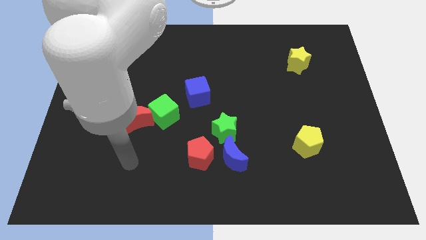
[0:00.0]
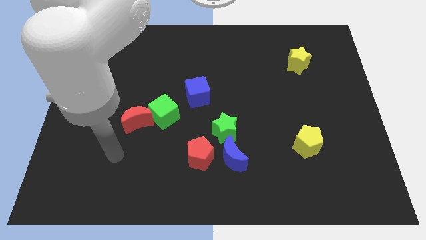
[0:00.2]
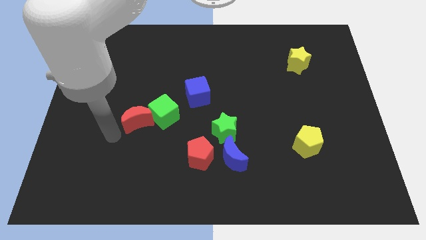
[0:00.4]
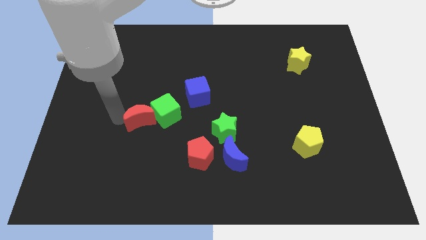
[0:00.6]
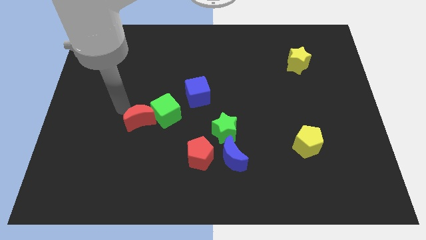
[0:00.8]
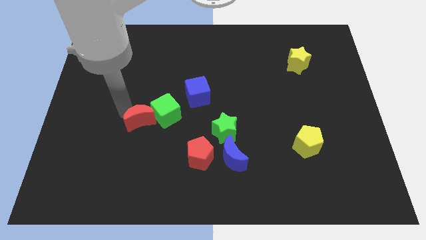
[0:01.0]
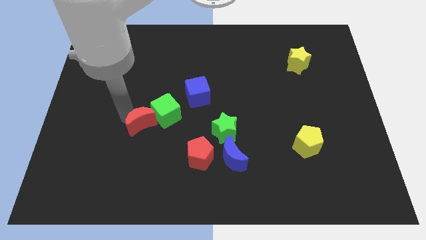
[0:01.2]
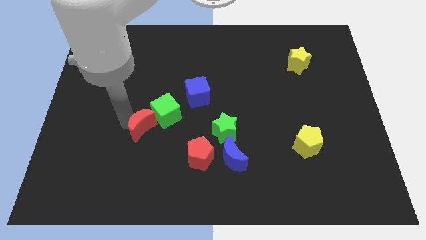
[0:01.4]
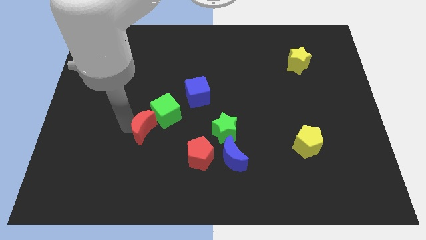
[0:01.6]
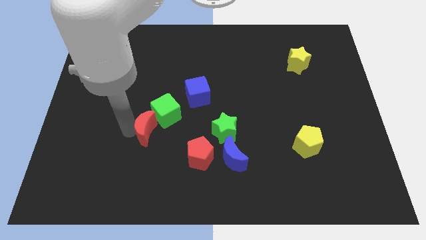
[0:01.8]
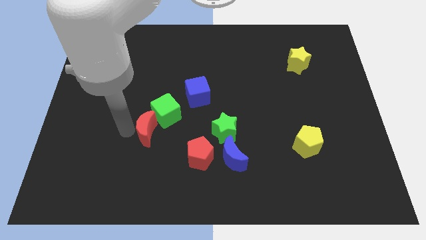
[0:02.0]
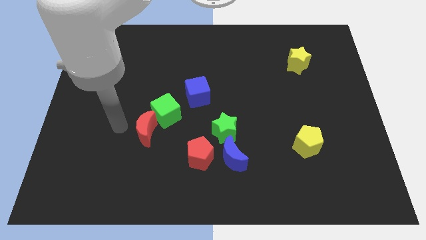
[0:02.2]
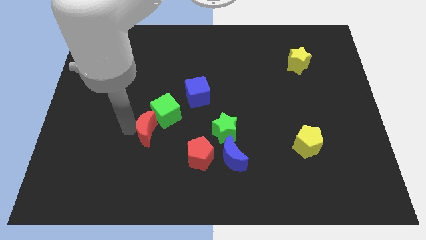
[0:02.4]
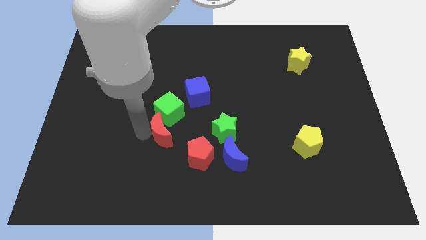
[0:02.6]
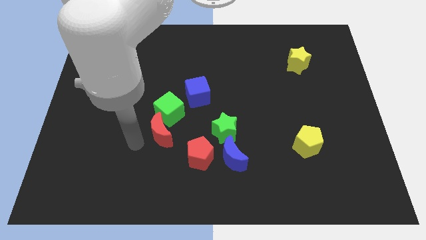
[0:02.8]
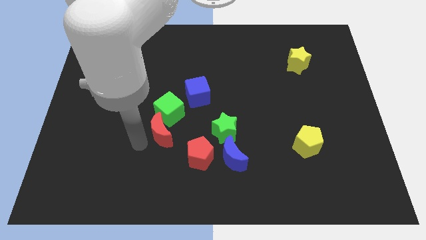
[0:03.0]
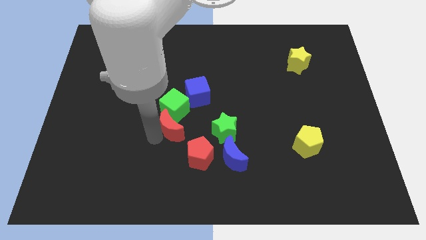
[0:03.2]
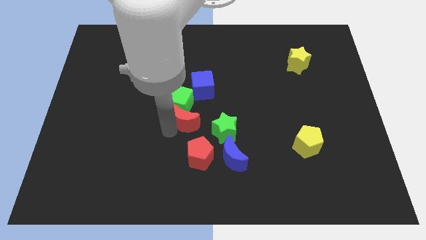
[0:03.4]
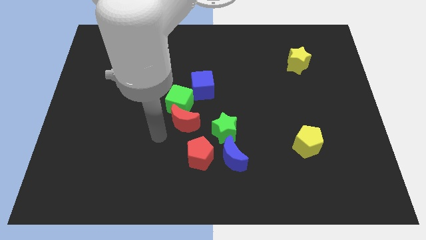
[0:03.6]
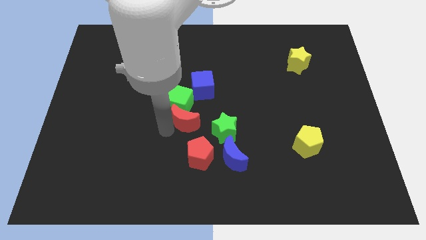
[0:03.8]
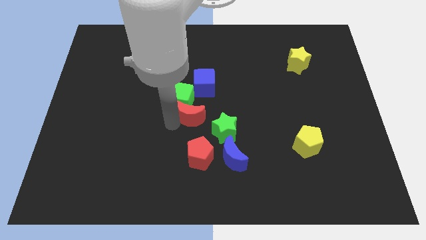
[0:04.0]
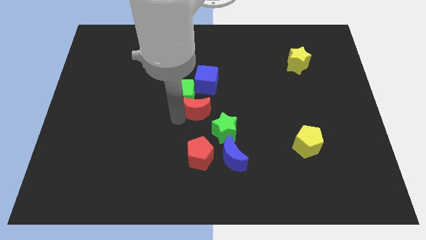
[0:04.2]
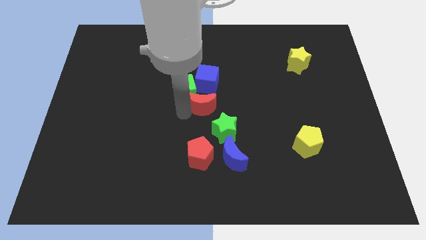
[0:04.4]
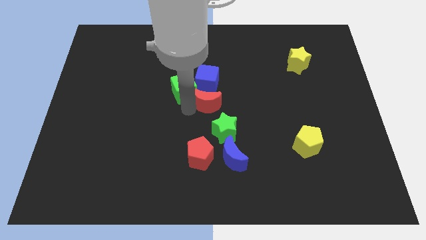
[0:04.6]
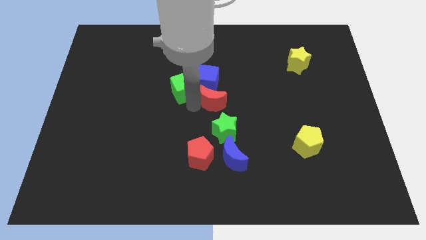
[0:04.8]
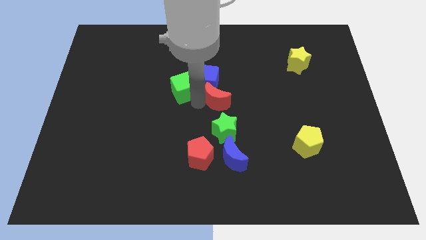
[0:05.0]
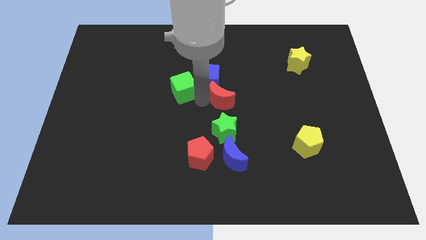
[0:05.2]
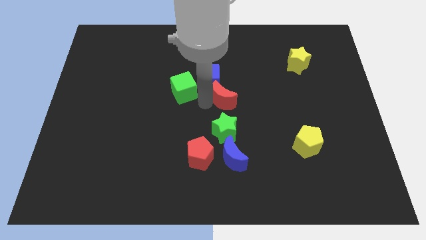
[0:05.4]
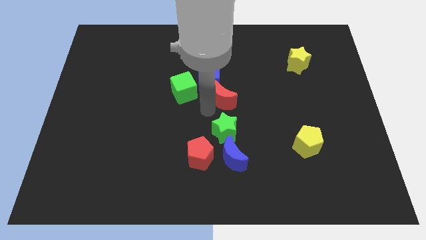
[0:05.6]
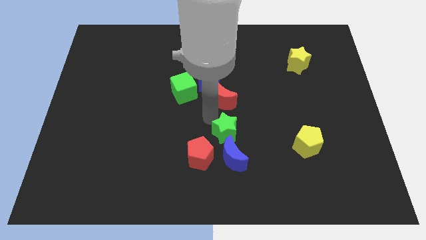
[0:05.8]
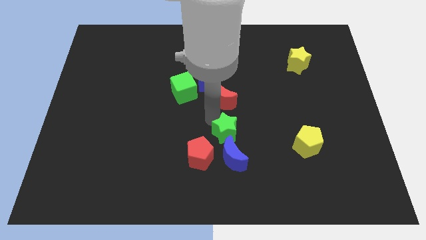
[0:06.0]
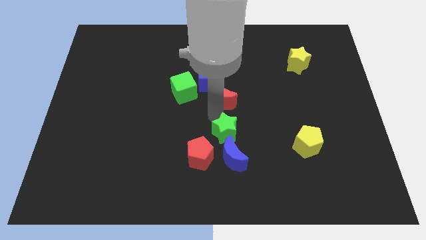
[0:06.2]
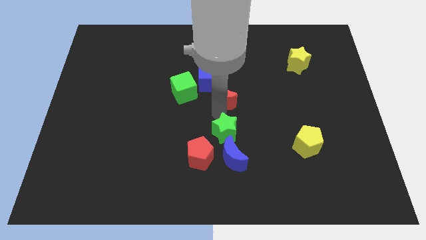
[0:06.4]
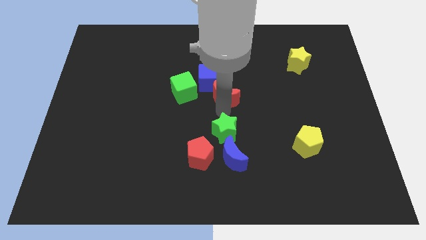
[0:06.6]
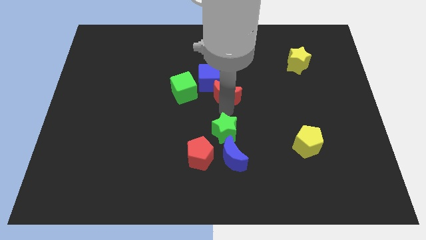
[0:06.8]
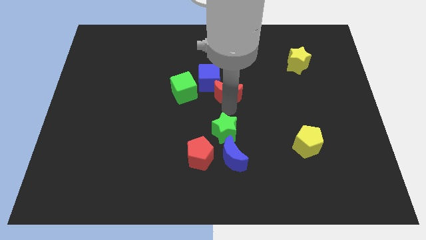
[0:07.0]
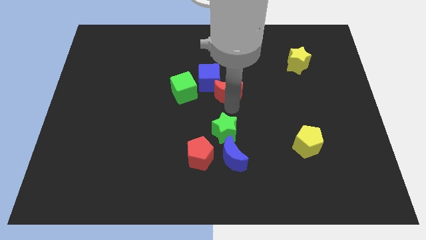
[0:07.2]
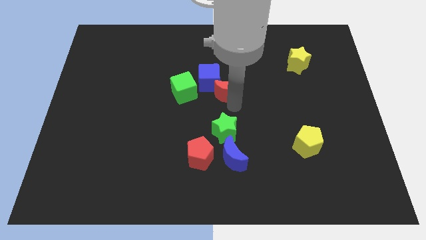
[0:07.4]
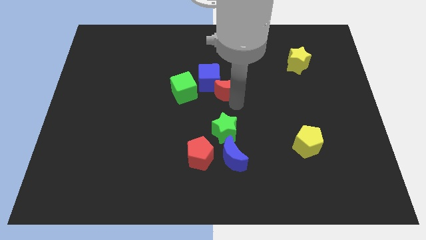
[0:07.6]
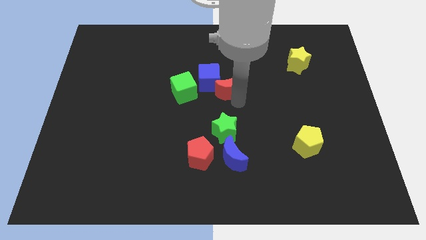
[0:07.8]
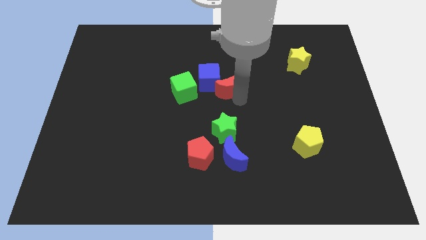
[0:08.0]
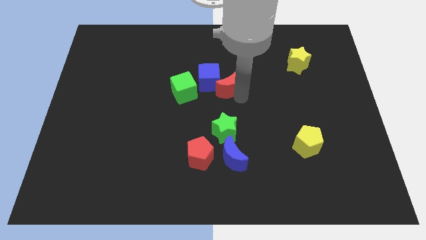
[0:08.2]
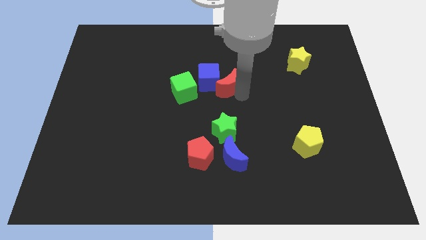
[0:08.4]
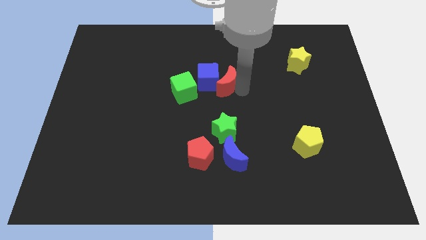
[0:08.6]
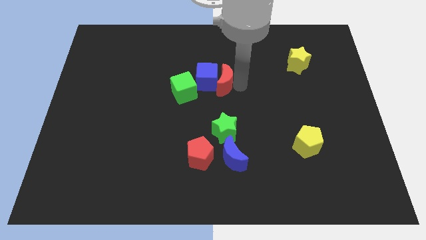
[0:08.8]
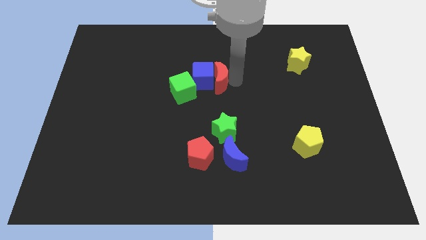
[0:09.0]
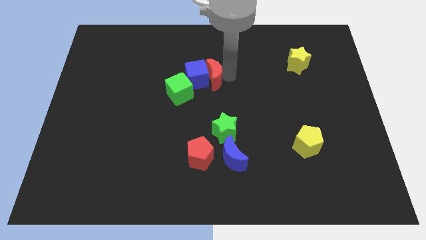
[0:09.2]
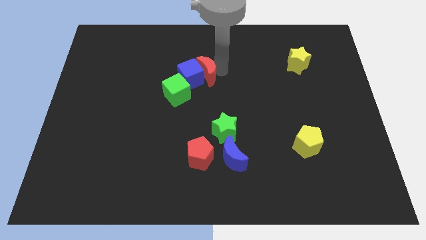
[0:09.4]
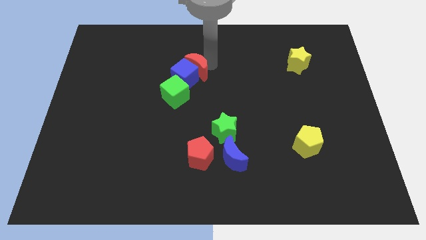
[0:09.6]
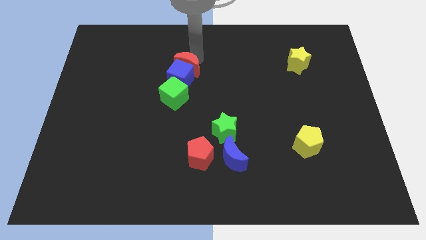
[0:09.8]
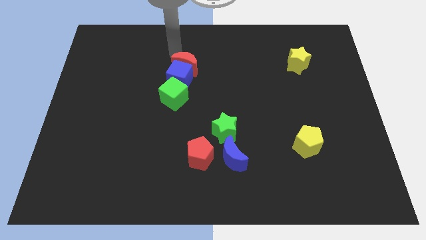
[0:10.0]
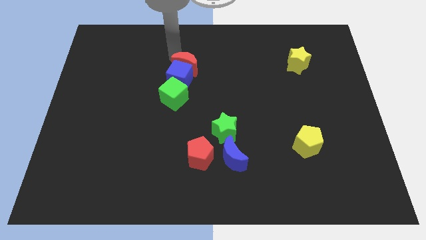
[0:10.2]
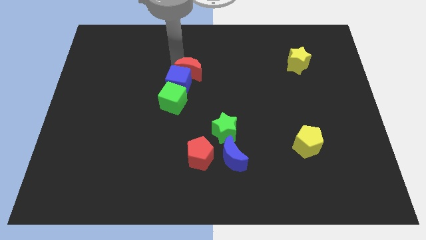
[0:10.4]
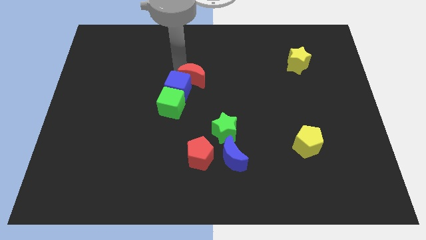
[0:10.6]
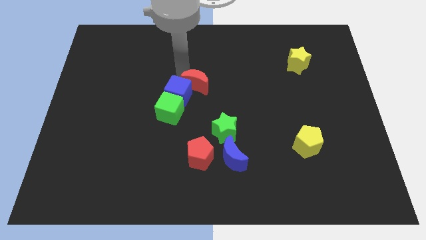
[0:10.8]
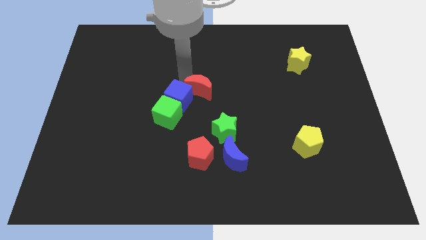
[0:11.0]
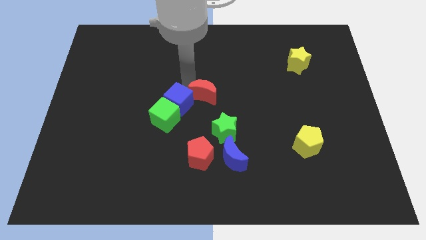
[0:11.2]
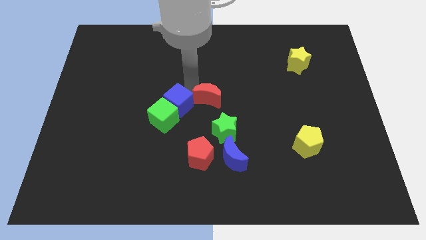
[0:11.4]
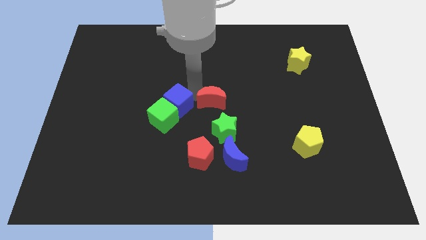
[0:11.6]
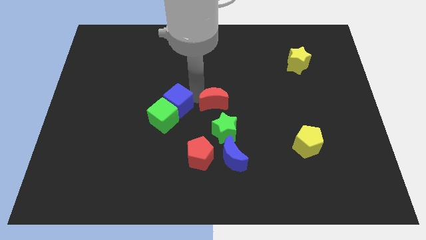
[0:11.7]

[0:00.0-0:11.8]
put the red moon just right of the green cube

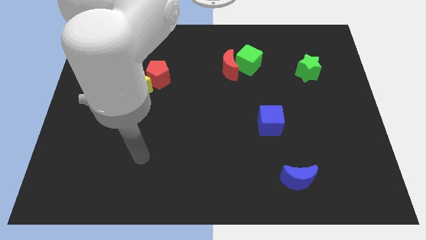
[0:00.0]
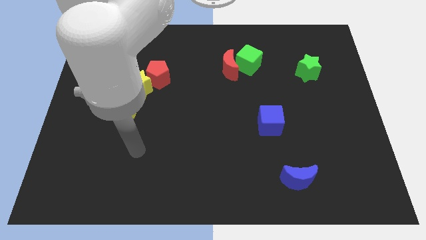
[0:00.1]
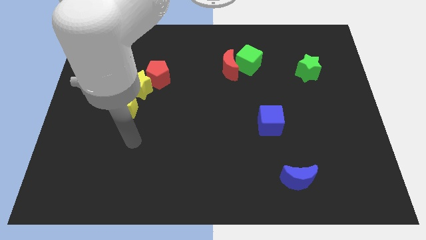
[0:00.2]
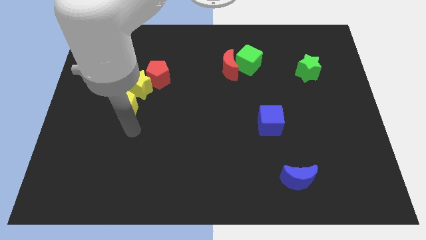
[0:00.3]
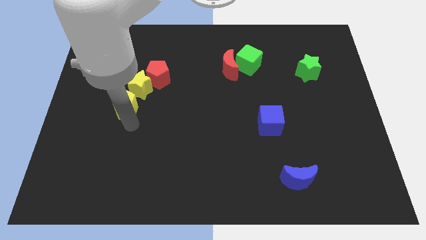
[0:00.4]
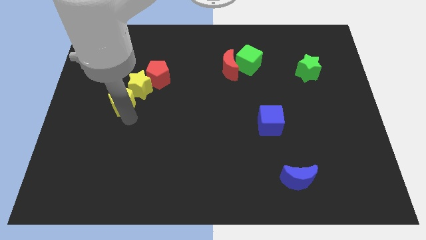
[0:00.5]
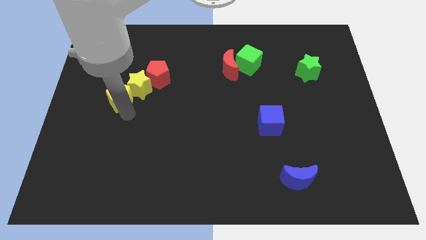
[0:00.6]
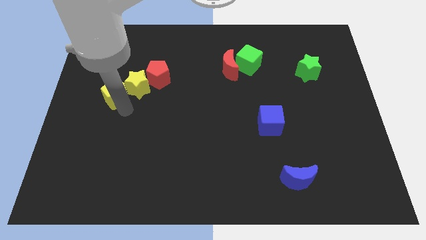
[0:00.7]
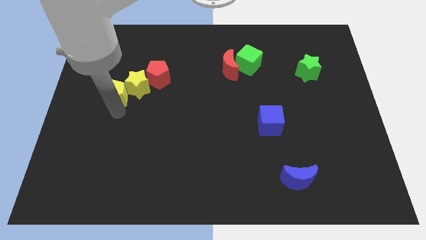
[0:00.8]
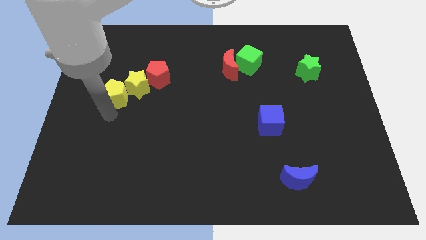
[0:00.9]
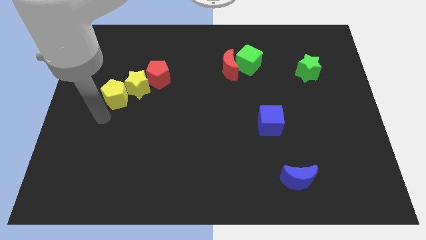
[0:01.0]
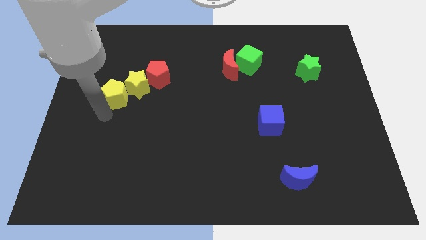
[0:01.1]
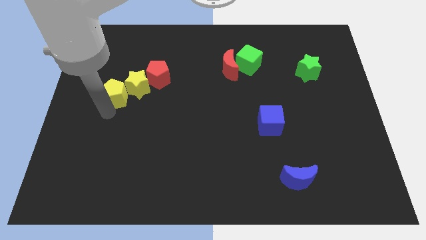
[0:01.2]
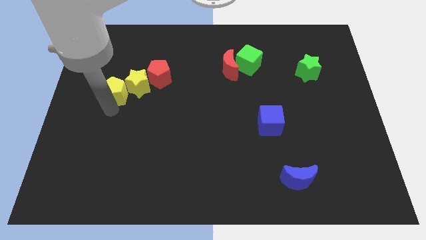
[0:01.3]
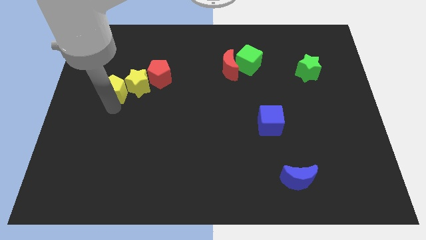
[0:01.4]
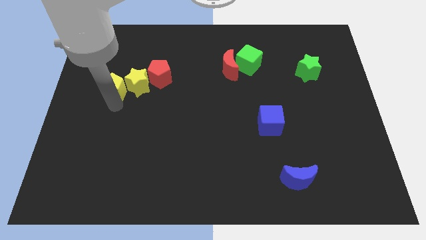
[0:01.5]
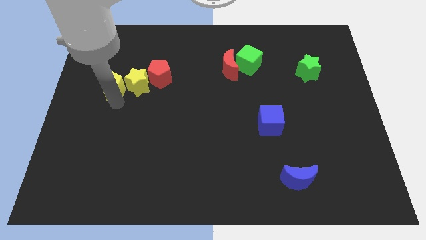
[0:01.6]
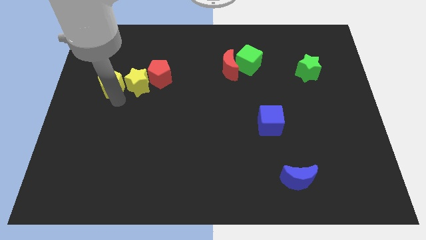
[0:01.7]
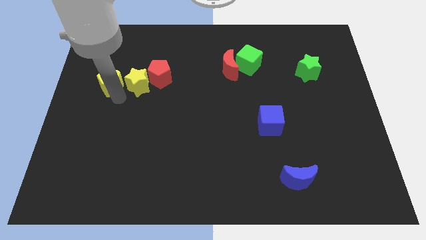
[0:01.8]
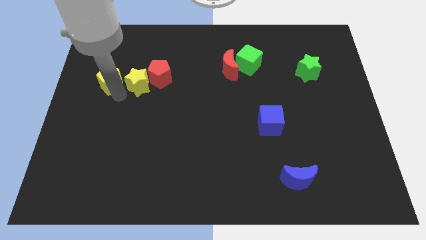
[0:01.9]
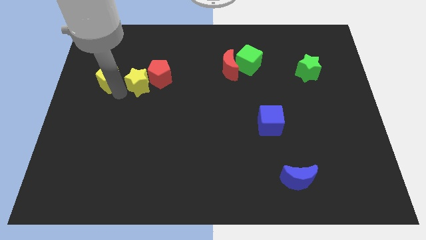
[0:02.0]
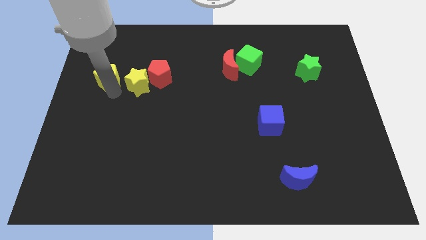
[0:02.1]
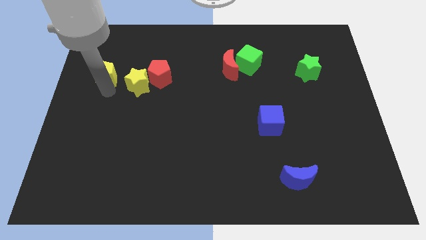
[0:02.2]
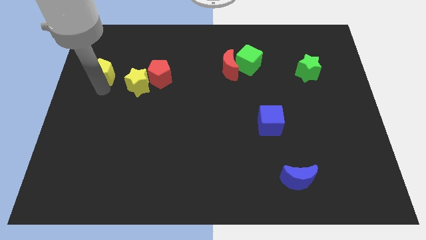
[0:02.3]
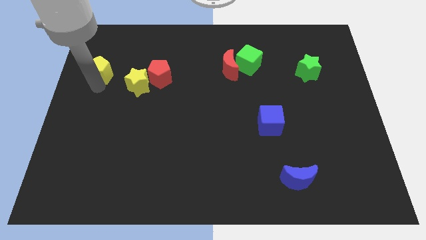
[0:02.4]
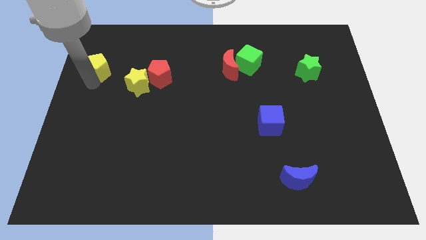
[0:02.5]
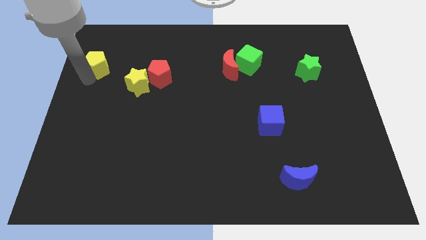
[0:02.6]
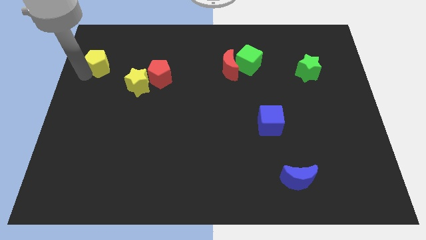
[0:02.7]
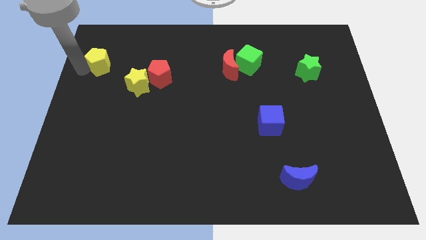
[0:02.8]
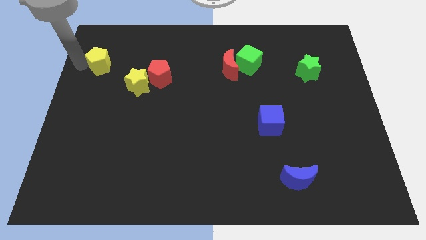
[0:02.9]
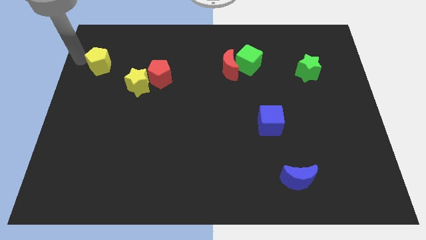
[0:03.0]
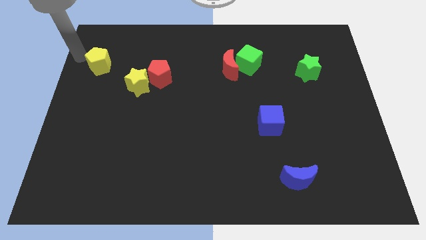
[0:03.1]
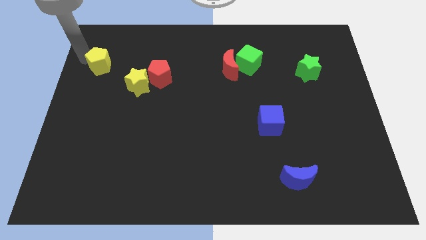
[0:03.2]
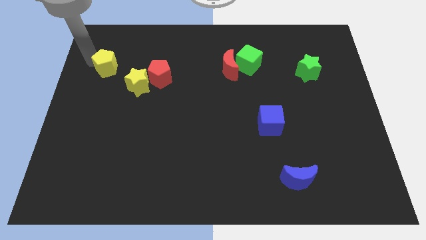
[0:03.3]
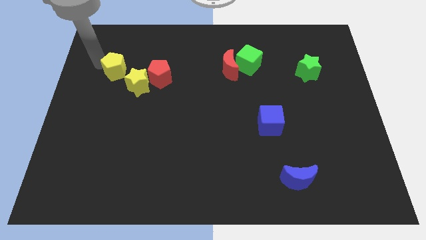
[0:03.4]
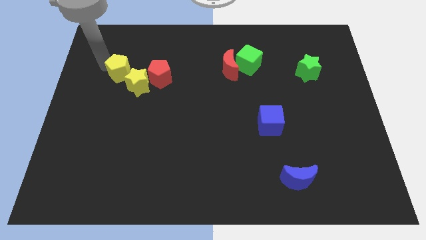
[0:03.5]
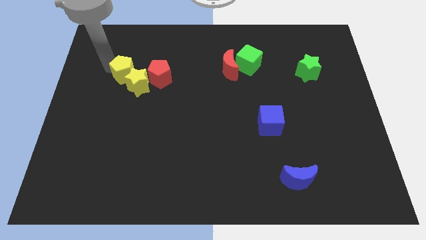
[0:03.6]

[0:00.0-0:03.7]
put the yellow pentagon to the top side of the yellow star
